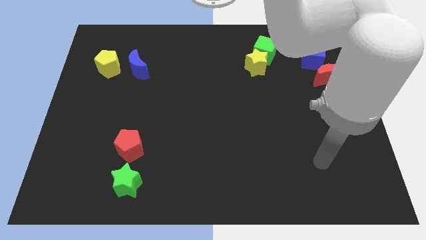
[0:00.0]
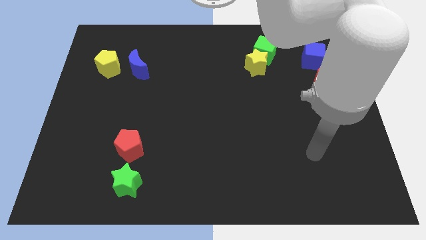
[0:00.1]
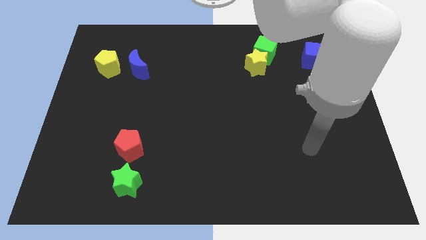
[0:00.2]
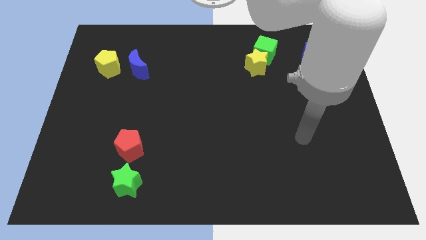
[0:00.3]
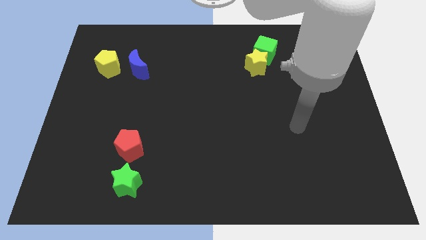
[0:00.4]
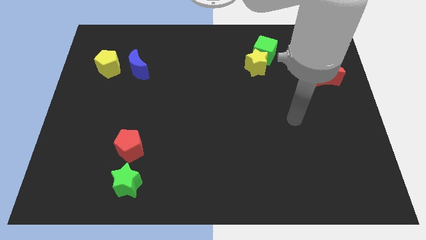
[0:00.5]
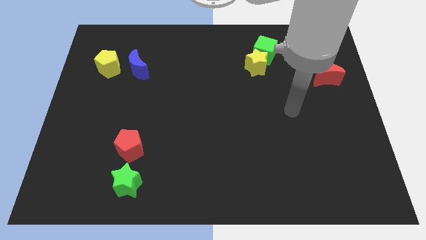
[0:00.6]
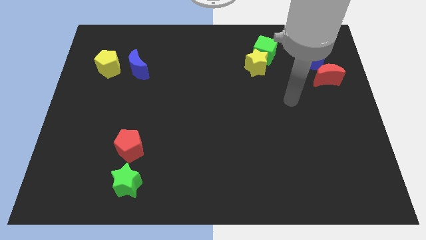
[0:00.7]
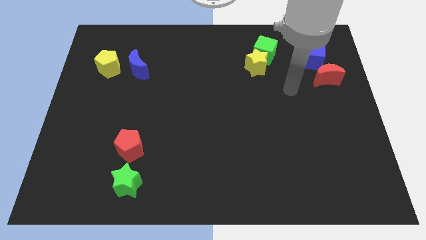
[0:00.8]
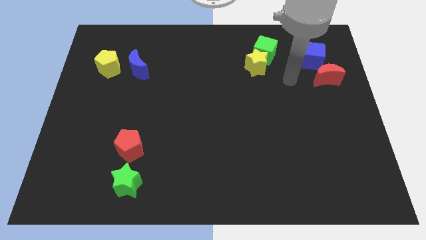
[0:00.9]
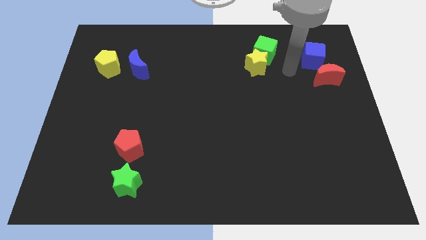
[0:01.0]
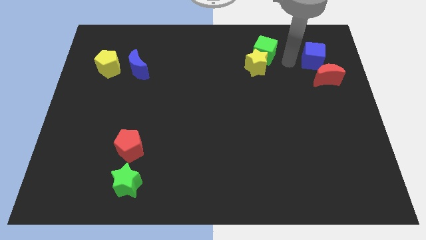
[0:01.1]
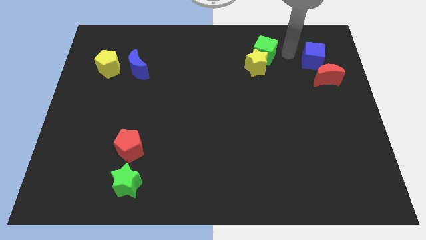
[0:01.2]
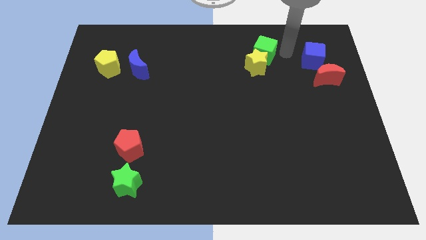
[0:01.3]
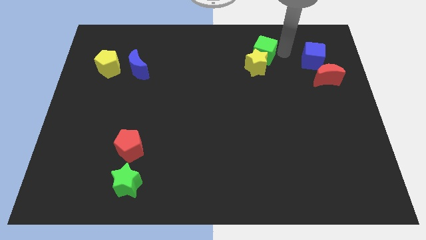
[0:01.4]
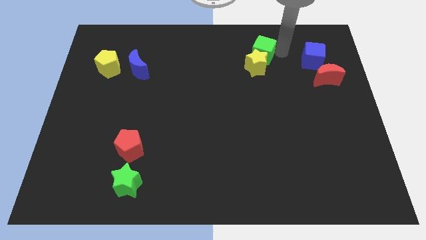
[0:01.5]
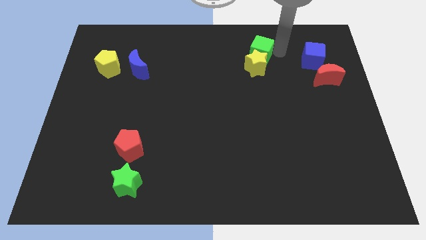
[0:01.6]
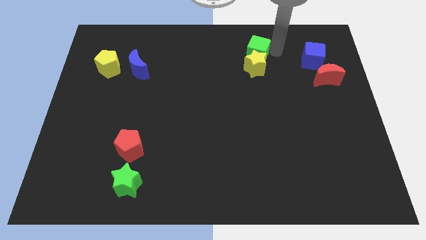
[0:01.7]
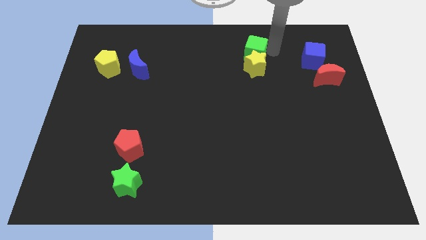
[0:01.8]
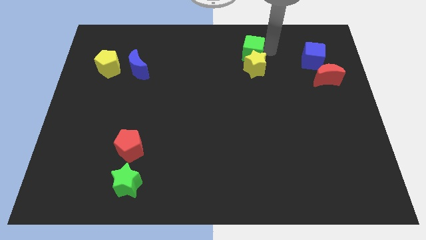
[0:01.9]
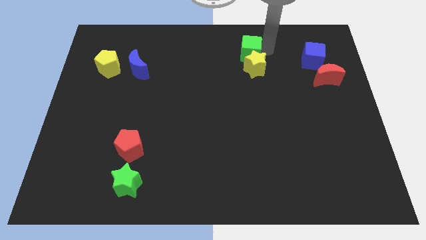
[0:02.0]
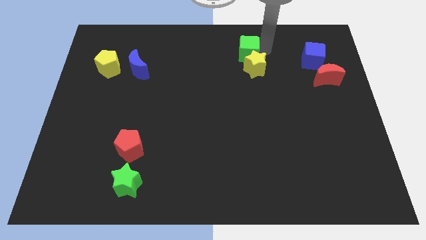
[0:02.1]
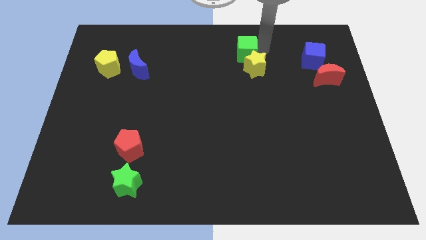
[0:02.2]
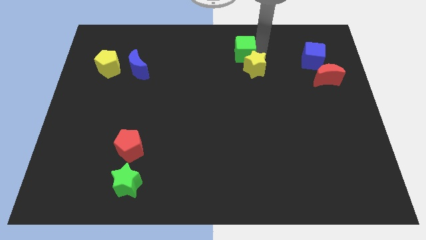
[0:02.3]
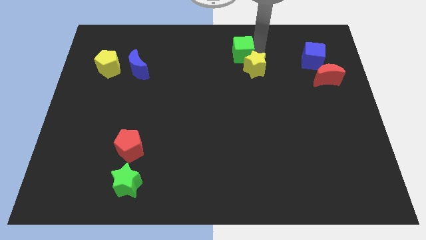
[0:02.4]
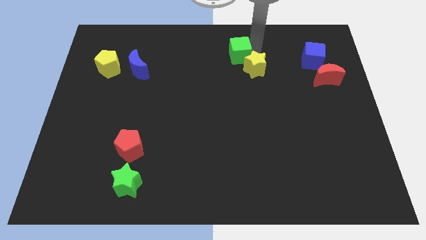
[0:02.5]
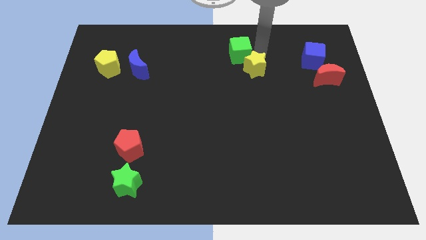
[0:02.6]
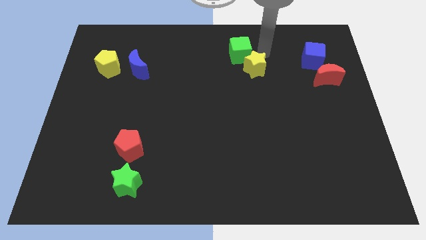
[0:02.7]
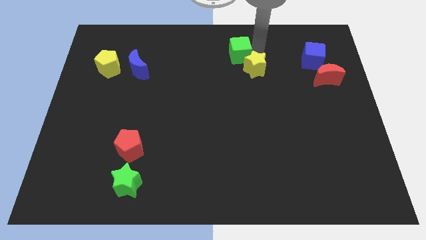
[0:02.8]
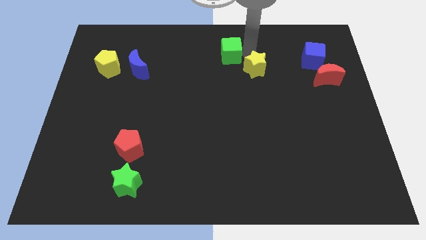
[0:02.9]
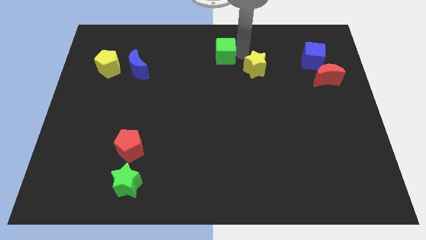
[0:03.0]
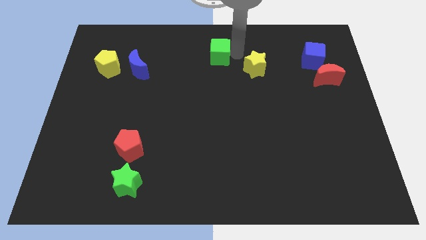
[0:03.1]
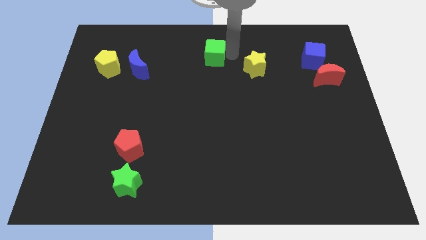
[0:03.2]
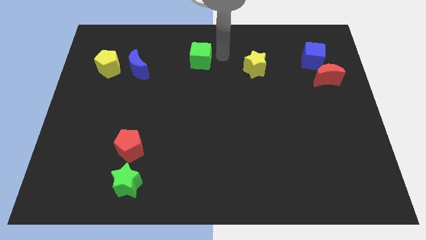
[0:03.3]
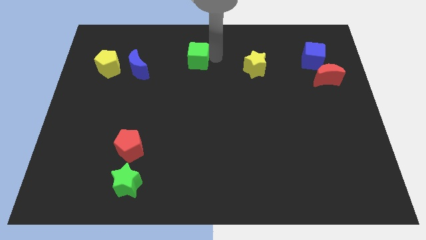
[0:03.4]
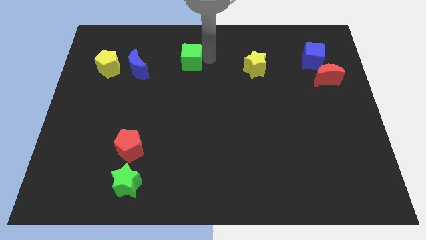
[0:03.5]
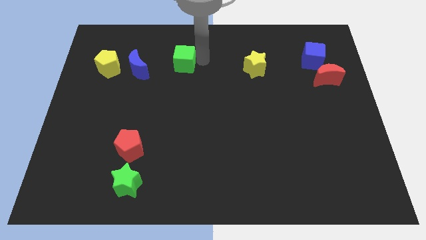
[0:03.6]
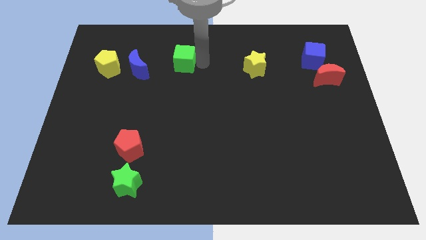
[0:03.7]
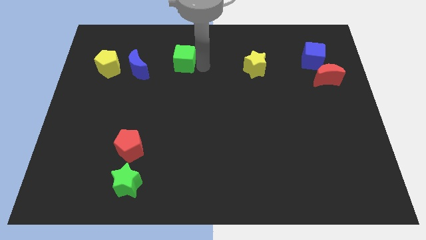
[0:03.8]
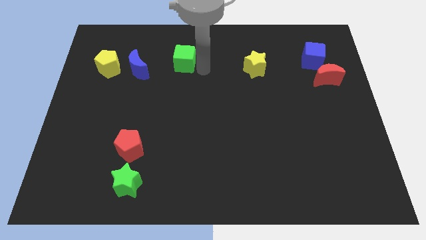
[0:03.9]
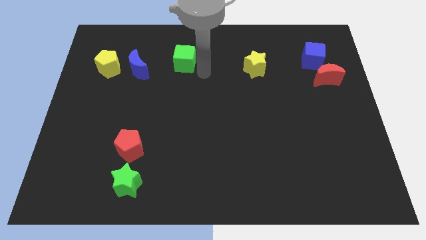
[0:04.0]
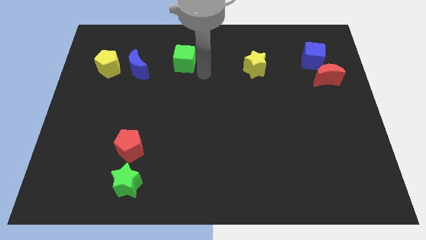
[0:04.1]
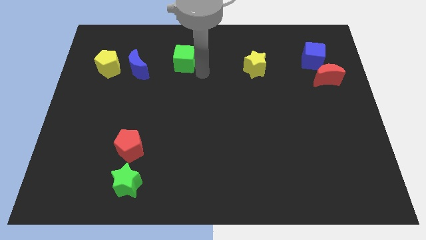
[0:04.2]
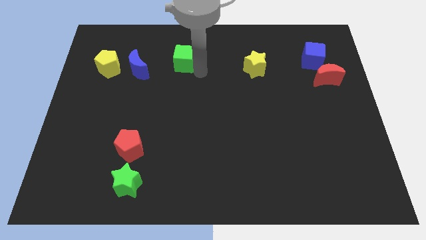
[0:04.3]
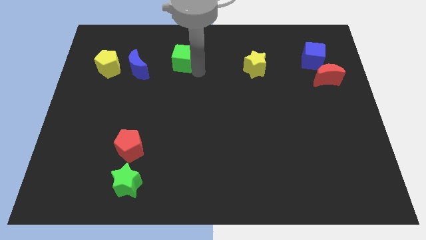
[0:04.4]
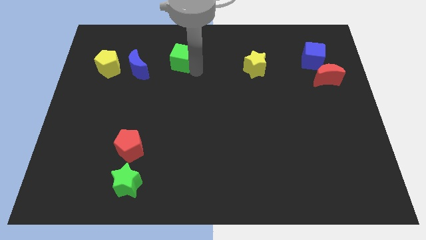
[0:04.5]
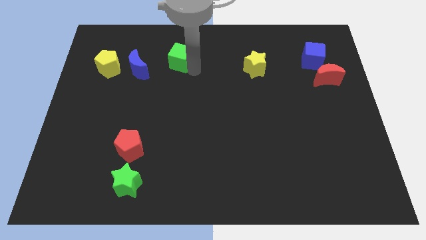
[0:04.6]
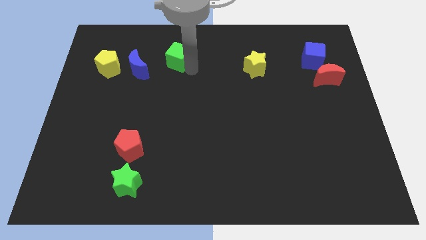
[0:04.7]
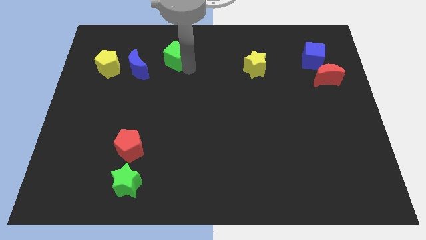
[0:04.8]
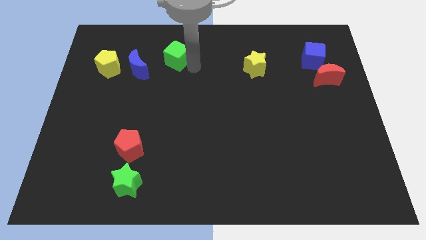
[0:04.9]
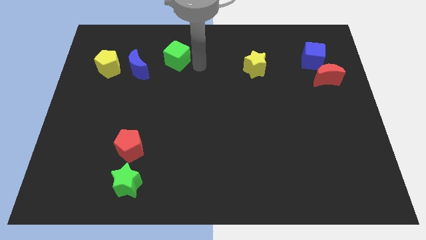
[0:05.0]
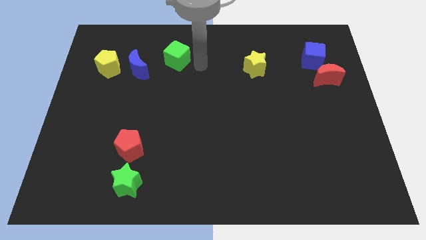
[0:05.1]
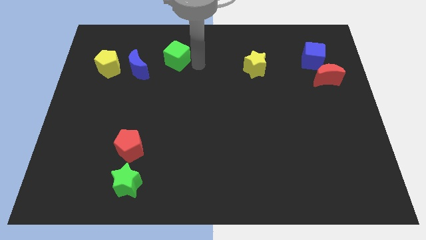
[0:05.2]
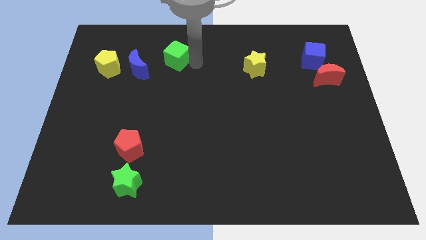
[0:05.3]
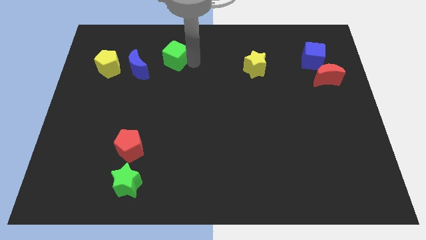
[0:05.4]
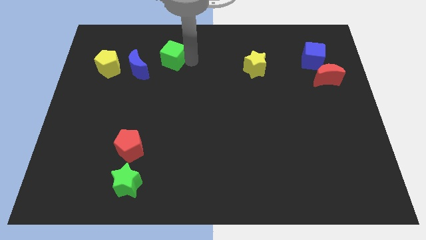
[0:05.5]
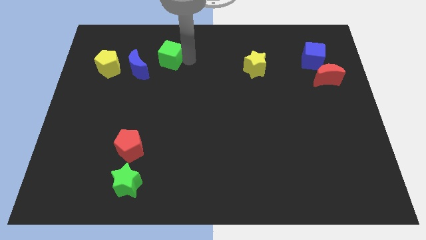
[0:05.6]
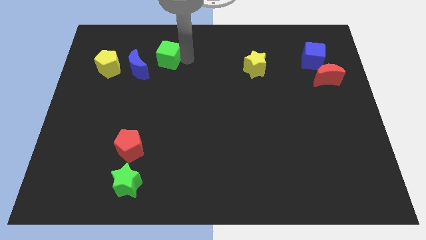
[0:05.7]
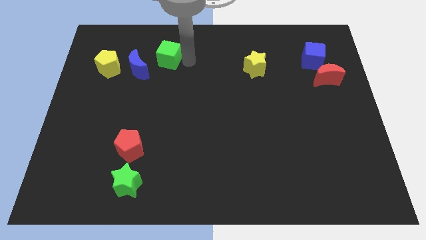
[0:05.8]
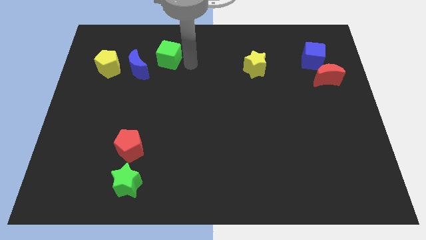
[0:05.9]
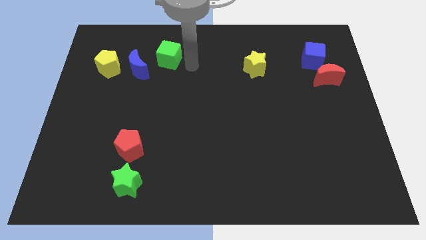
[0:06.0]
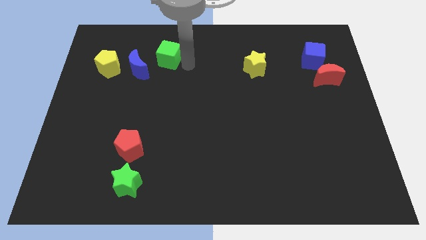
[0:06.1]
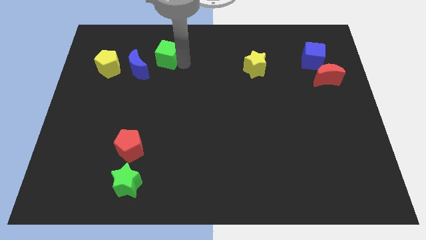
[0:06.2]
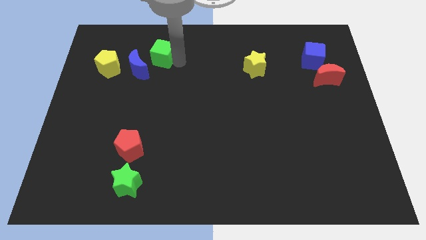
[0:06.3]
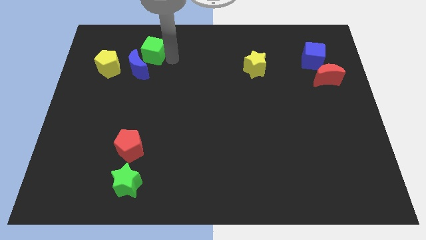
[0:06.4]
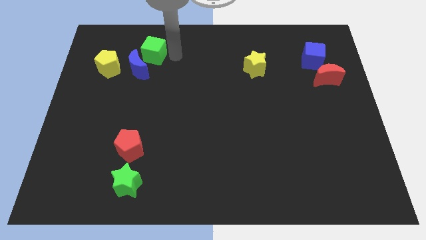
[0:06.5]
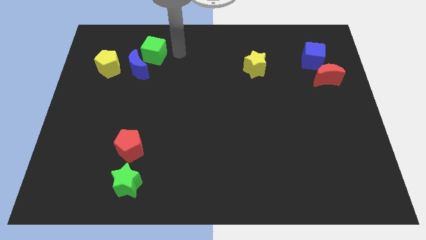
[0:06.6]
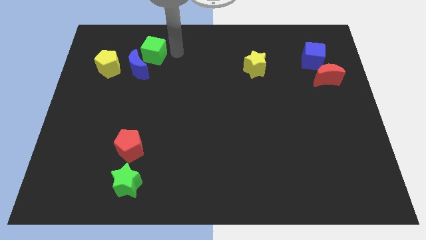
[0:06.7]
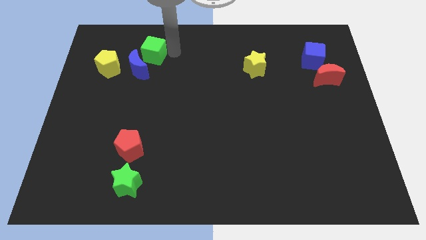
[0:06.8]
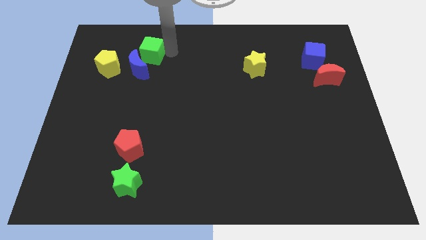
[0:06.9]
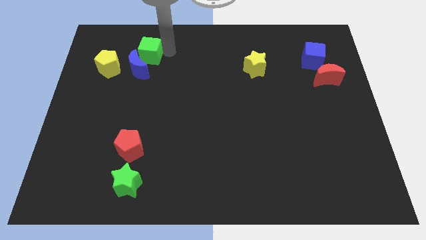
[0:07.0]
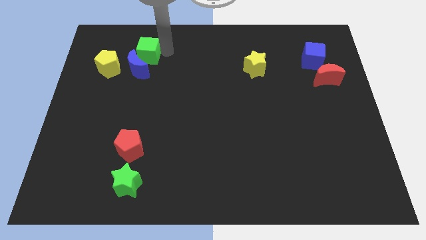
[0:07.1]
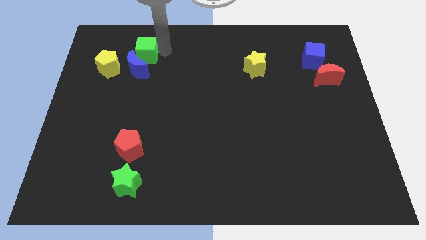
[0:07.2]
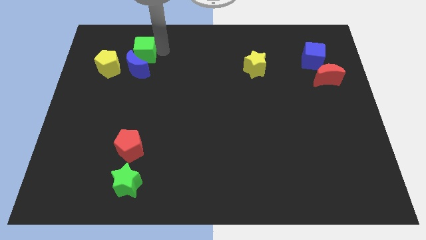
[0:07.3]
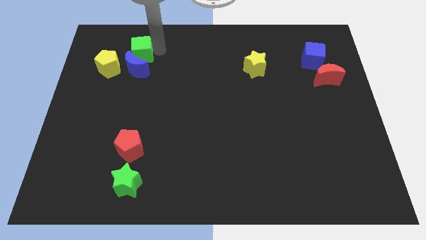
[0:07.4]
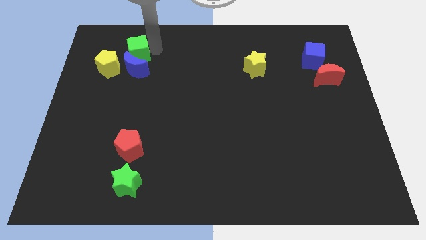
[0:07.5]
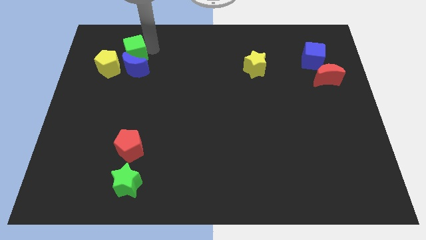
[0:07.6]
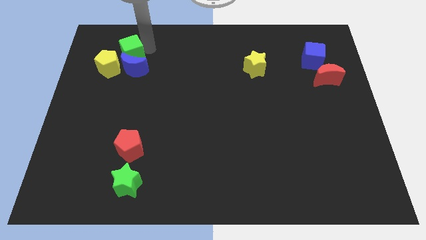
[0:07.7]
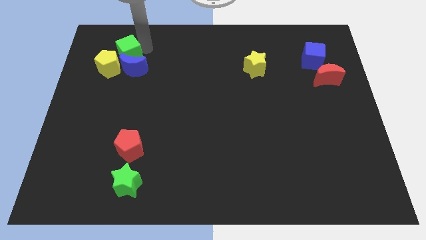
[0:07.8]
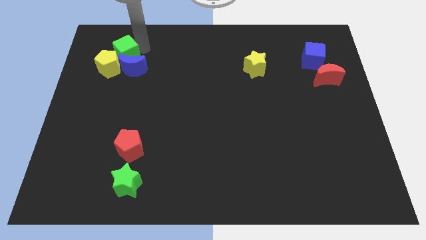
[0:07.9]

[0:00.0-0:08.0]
put the green cube next to the yellow pentagon
